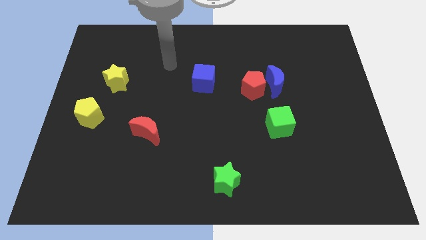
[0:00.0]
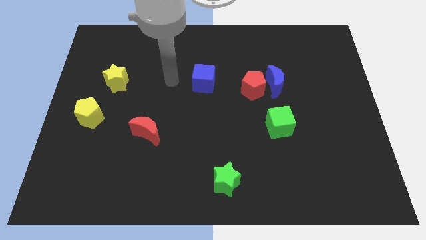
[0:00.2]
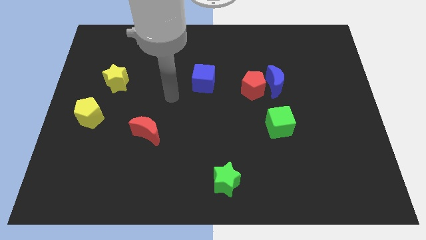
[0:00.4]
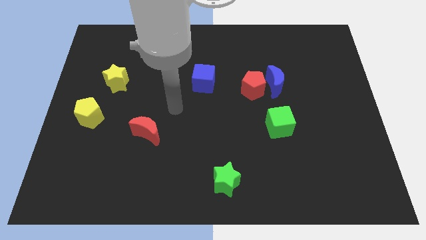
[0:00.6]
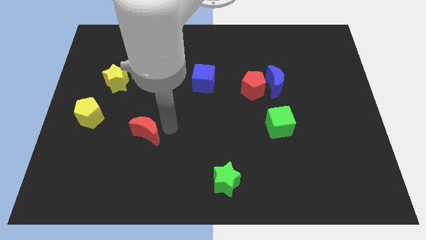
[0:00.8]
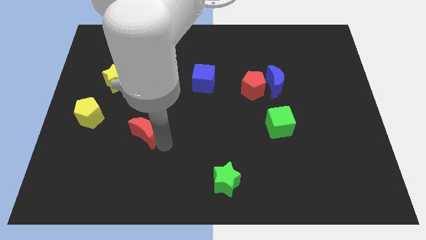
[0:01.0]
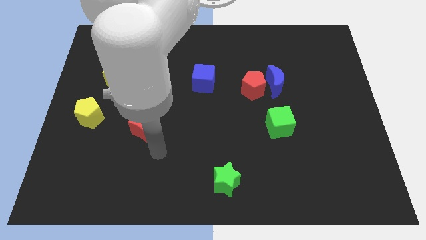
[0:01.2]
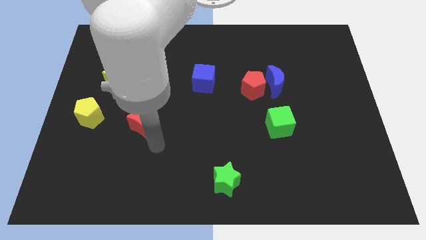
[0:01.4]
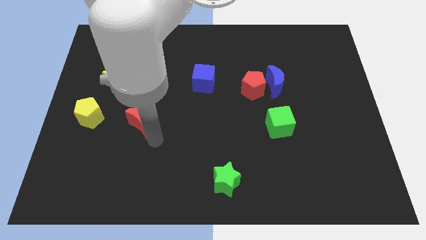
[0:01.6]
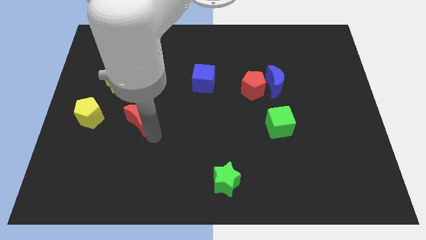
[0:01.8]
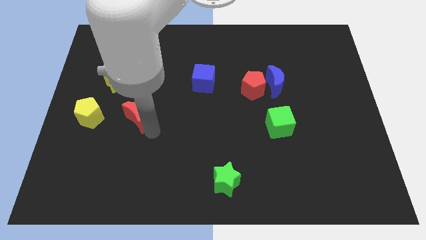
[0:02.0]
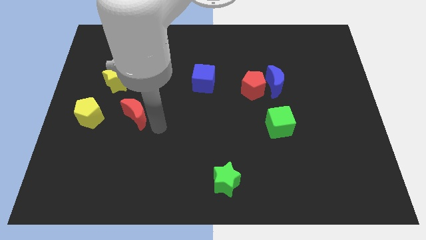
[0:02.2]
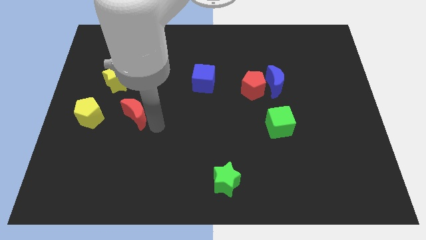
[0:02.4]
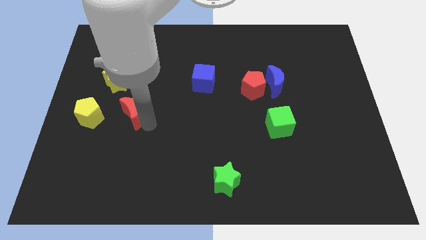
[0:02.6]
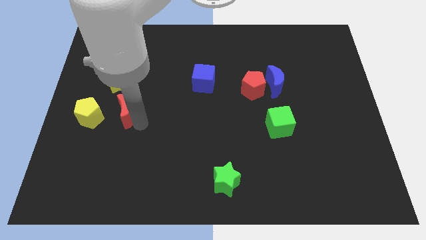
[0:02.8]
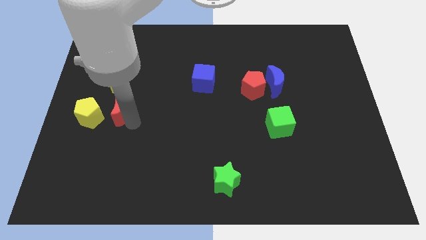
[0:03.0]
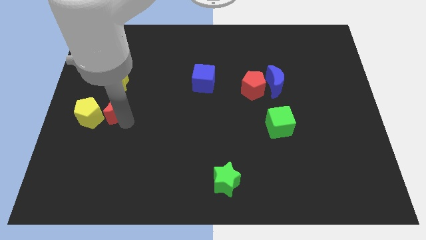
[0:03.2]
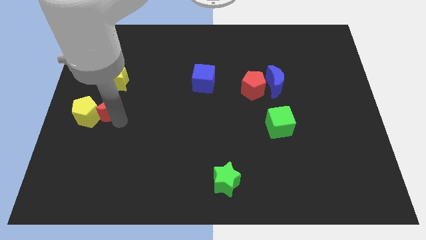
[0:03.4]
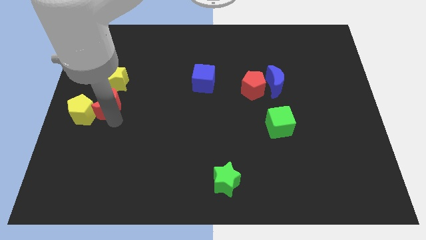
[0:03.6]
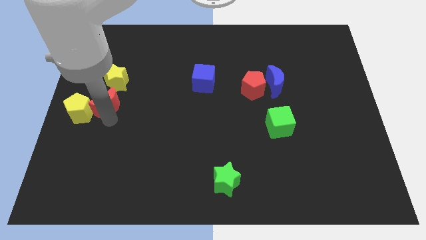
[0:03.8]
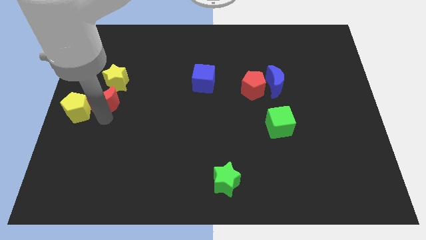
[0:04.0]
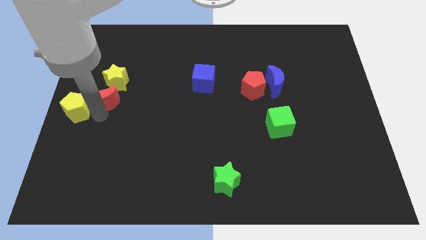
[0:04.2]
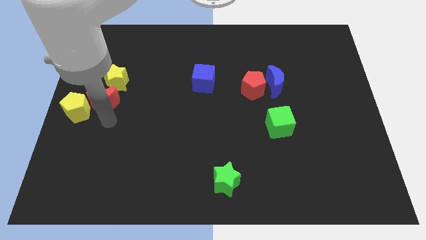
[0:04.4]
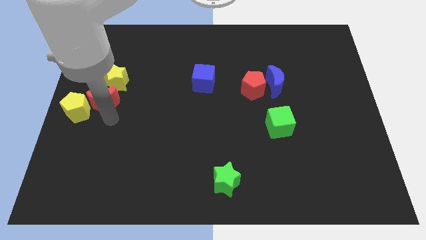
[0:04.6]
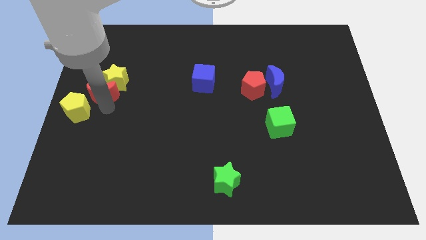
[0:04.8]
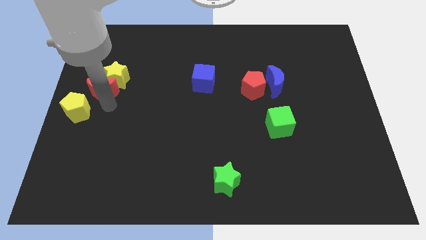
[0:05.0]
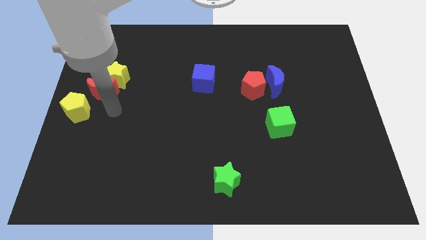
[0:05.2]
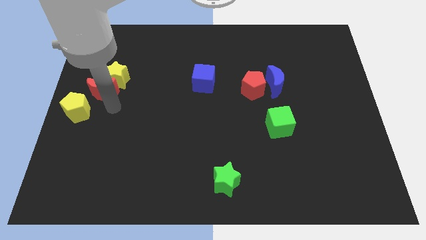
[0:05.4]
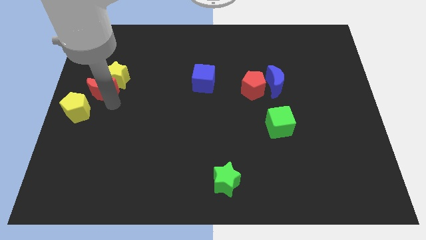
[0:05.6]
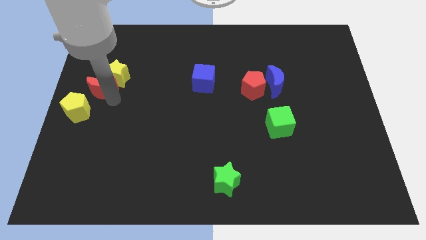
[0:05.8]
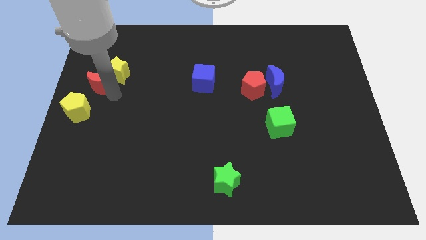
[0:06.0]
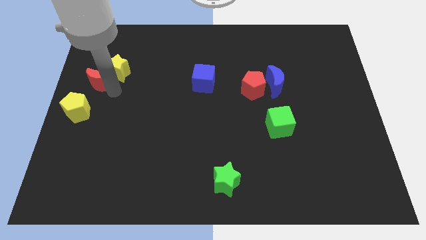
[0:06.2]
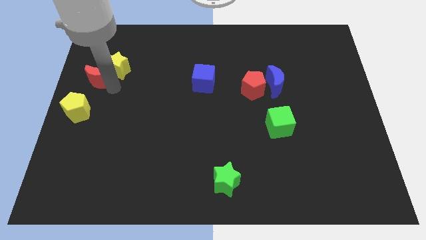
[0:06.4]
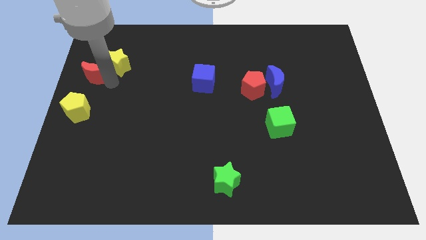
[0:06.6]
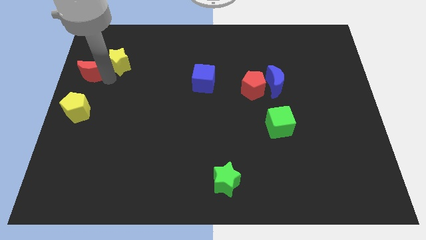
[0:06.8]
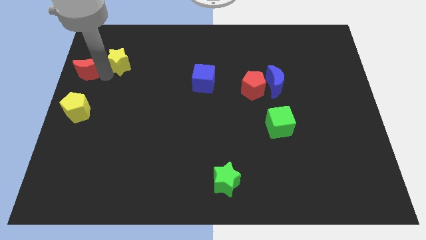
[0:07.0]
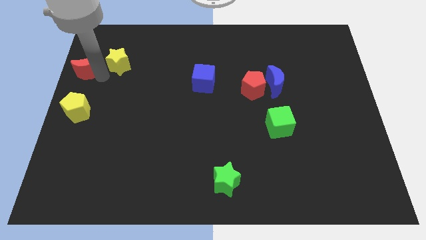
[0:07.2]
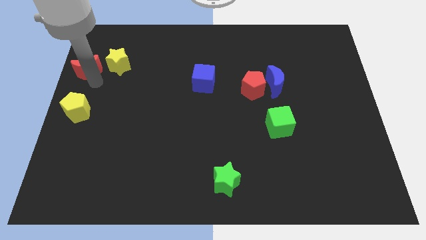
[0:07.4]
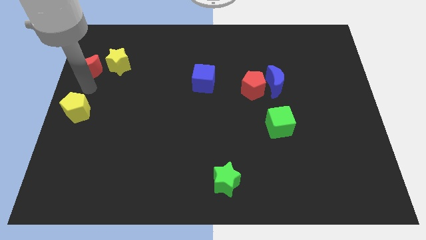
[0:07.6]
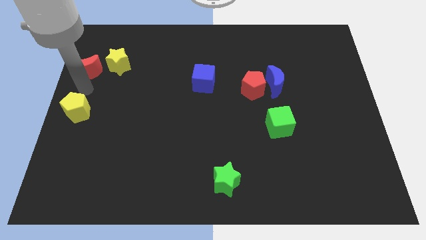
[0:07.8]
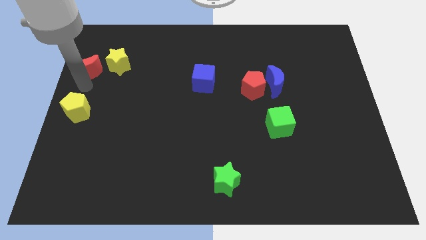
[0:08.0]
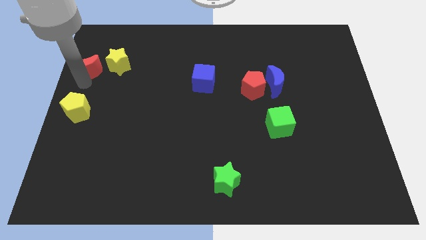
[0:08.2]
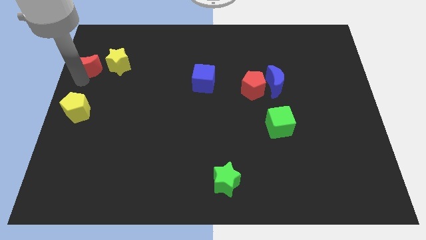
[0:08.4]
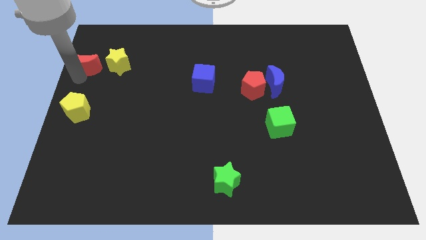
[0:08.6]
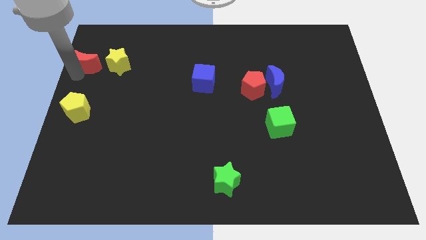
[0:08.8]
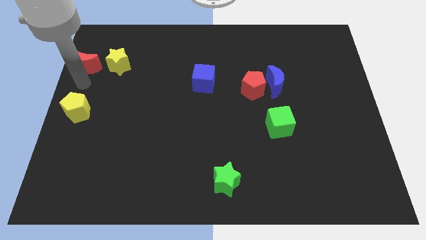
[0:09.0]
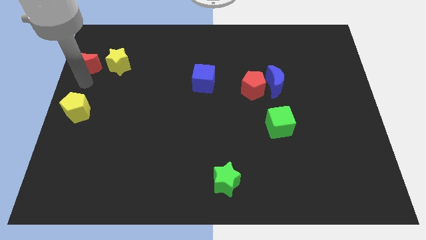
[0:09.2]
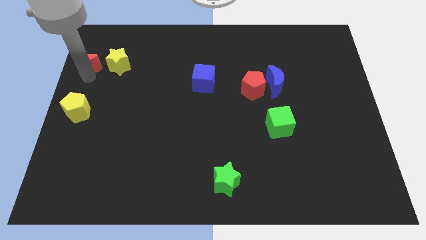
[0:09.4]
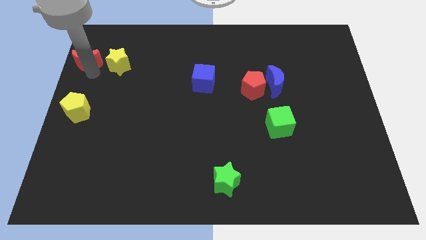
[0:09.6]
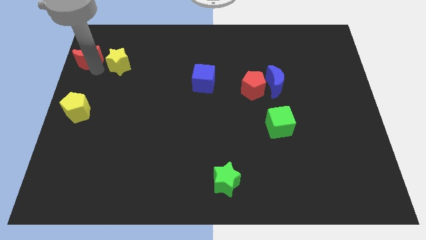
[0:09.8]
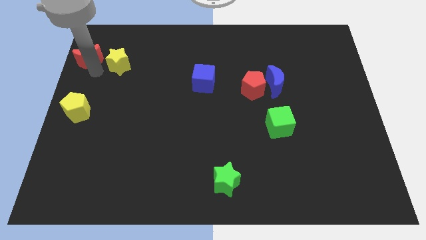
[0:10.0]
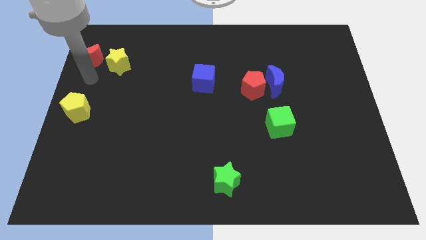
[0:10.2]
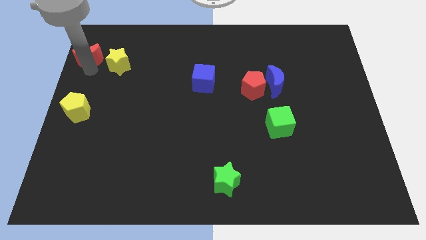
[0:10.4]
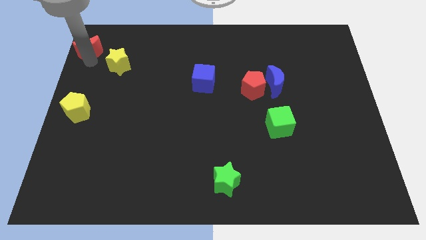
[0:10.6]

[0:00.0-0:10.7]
push the red moon to the top left of the board
